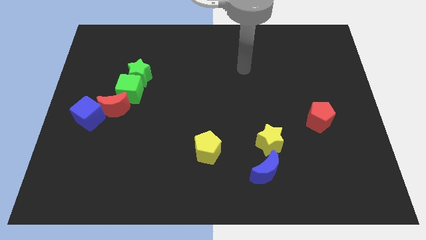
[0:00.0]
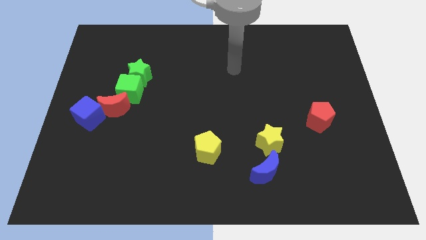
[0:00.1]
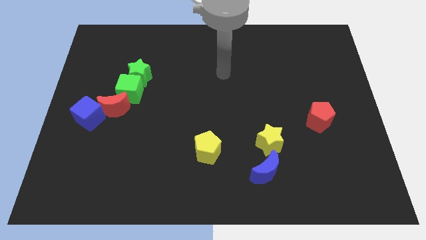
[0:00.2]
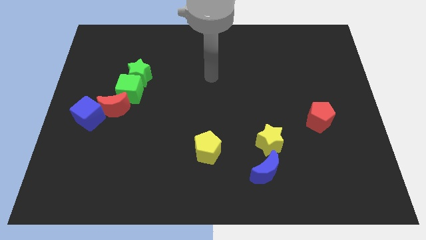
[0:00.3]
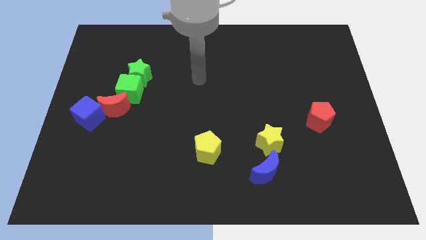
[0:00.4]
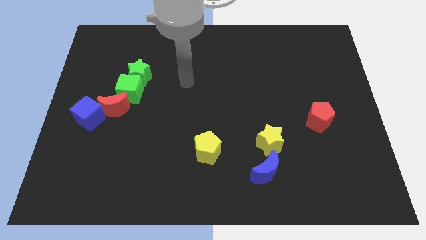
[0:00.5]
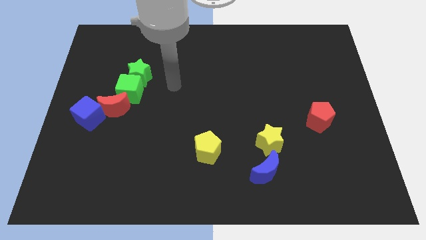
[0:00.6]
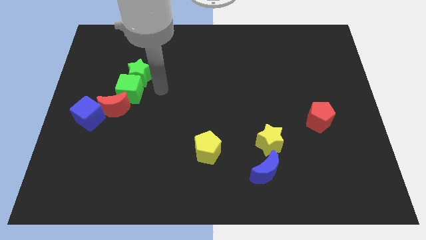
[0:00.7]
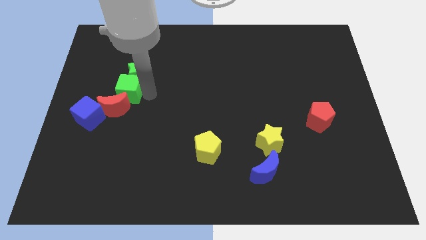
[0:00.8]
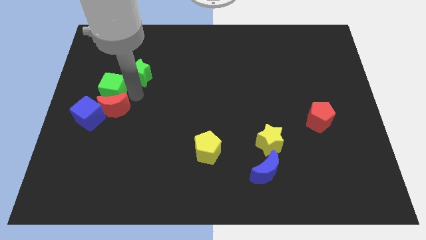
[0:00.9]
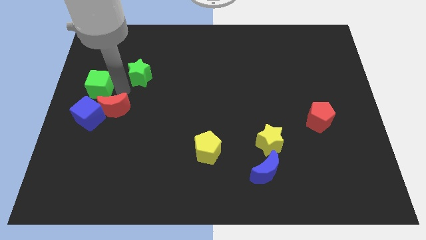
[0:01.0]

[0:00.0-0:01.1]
move the green star away from the green cube

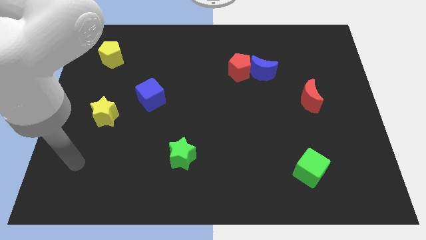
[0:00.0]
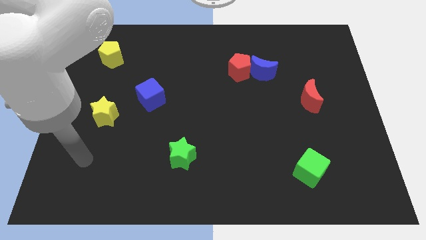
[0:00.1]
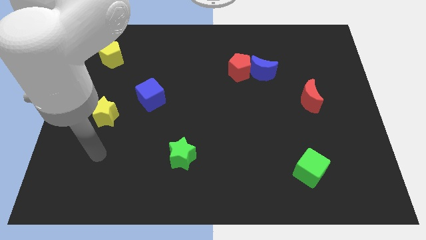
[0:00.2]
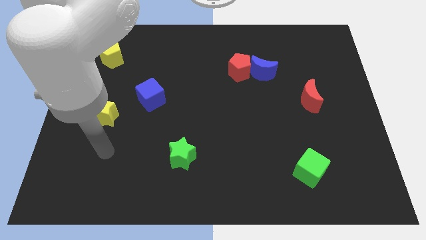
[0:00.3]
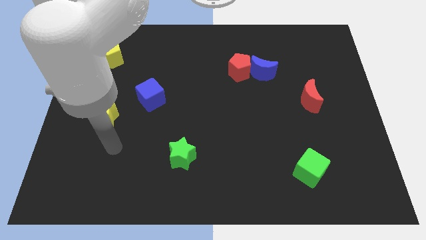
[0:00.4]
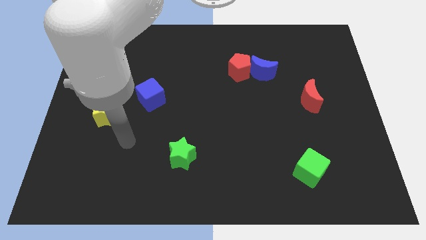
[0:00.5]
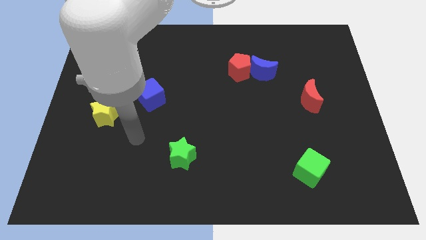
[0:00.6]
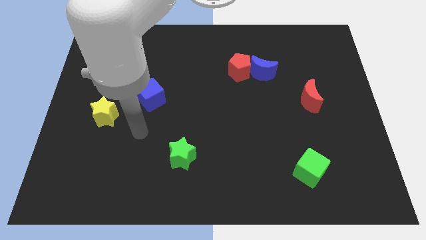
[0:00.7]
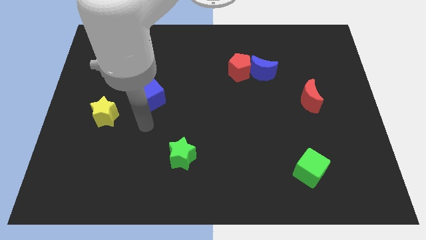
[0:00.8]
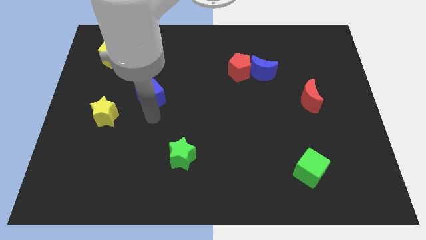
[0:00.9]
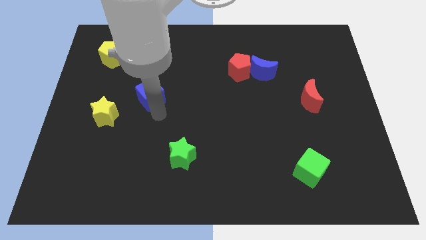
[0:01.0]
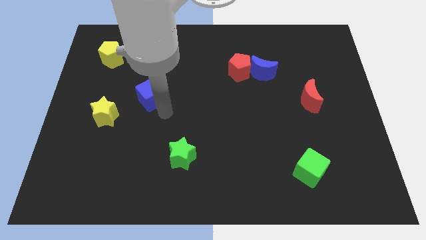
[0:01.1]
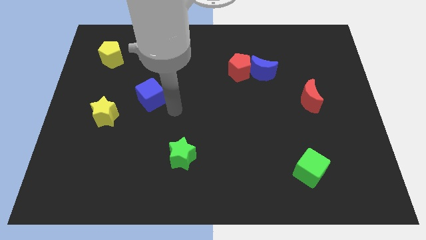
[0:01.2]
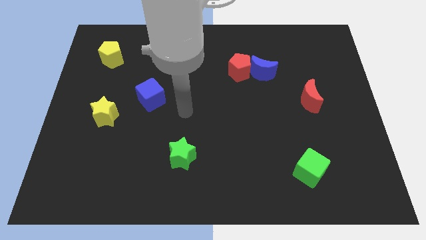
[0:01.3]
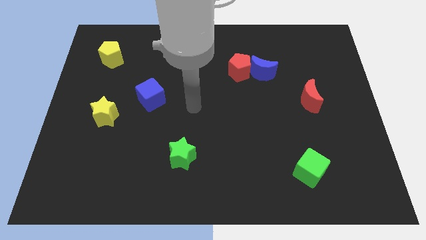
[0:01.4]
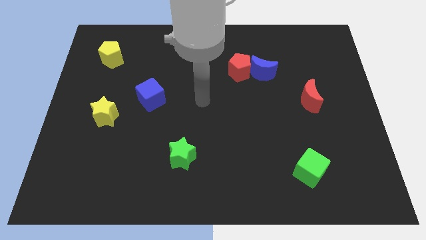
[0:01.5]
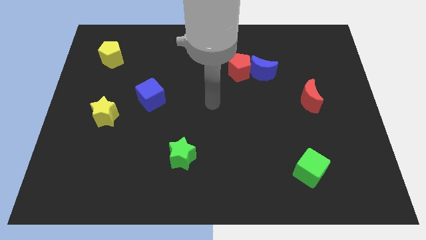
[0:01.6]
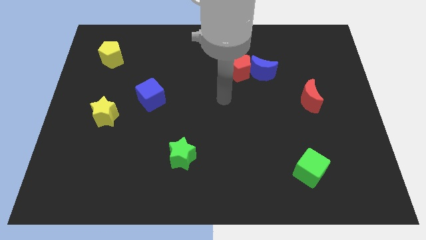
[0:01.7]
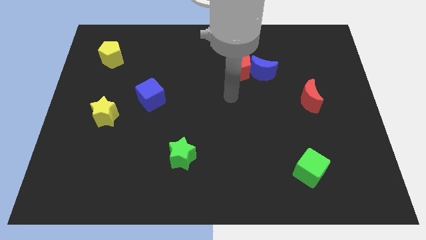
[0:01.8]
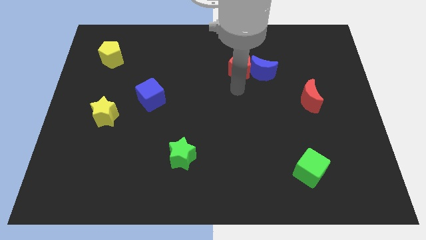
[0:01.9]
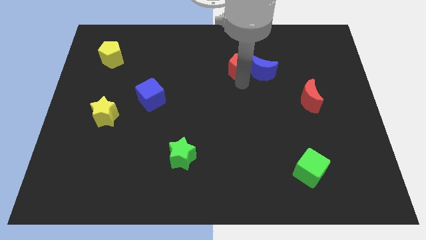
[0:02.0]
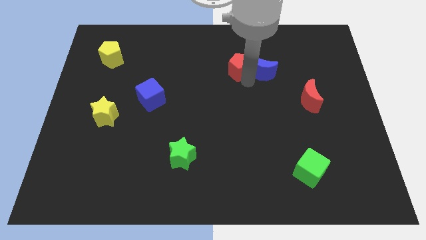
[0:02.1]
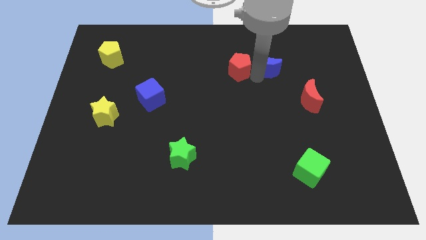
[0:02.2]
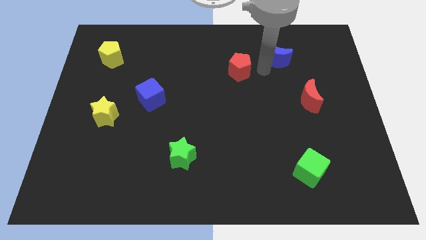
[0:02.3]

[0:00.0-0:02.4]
pull the red pentagon apart from the blue moon

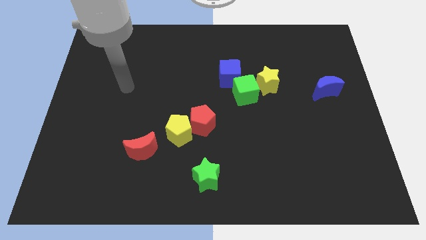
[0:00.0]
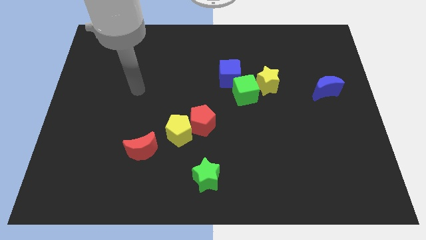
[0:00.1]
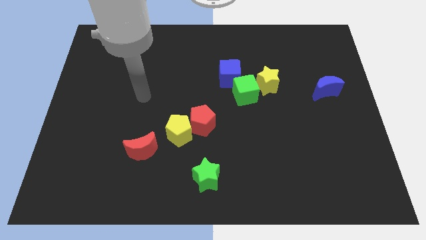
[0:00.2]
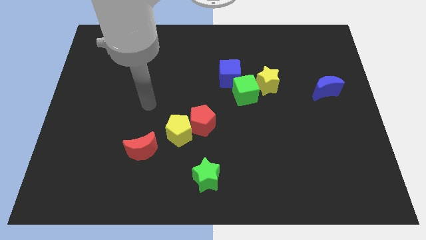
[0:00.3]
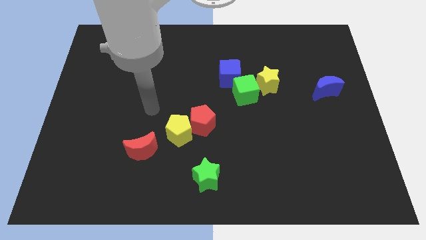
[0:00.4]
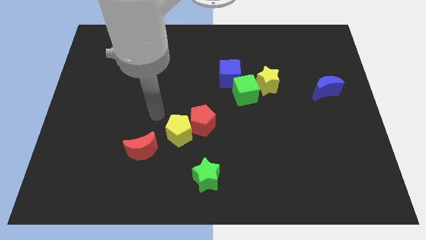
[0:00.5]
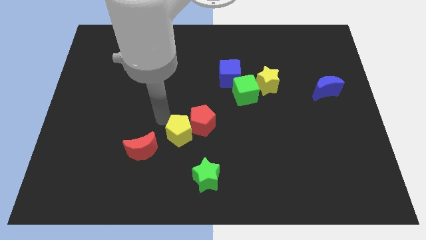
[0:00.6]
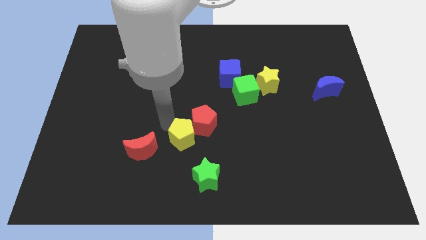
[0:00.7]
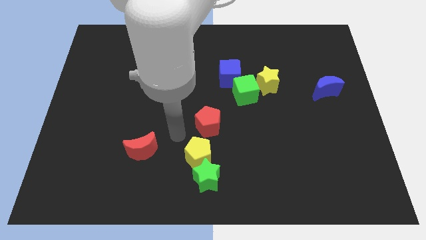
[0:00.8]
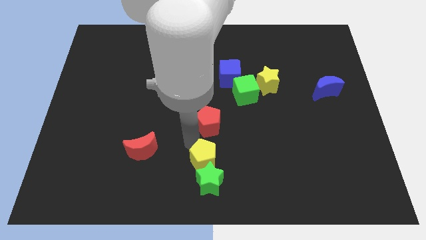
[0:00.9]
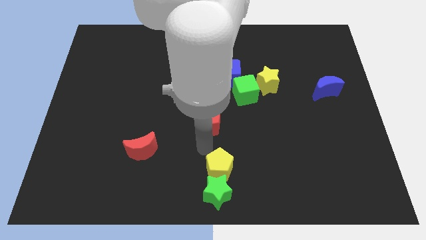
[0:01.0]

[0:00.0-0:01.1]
move the red pentagon away from the yellow pentagon

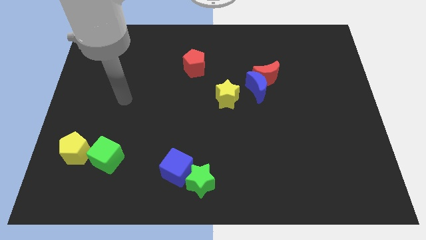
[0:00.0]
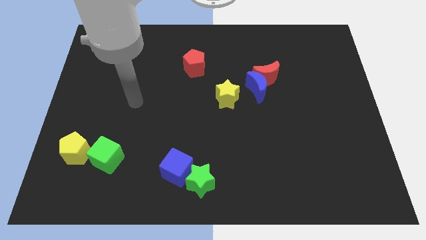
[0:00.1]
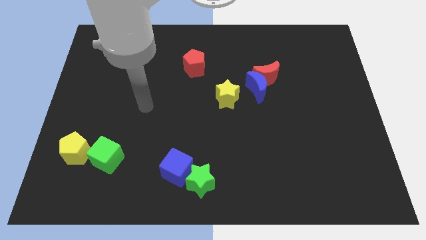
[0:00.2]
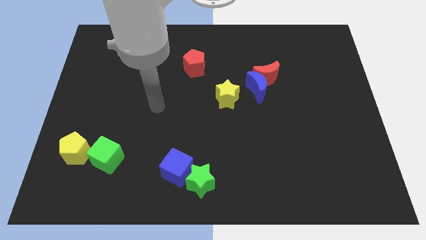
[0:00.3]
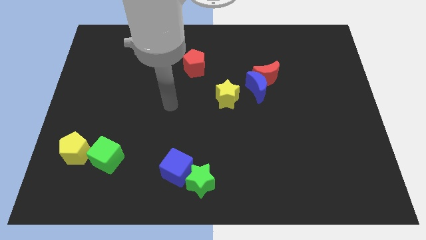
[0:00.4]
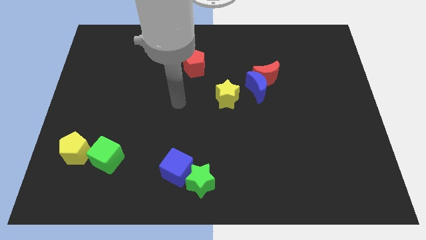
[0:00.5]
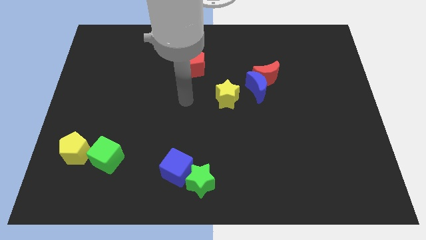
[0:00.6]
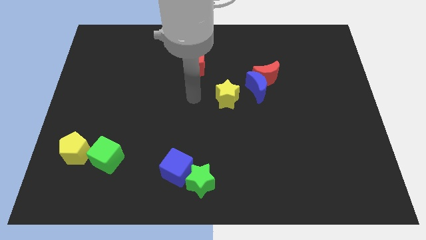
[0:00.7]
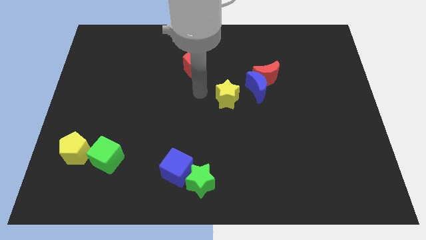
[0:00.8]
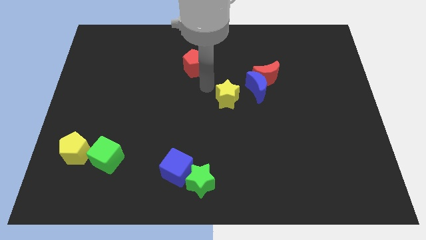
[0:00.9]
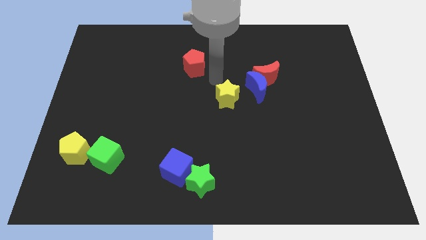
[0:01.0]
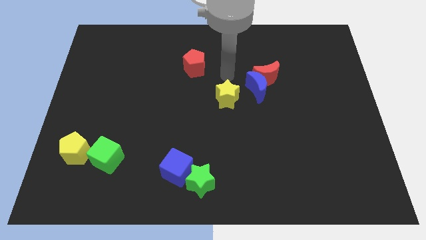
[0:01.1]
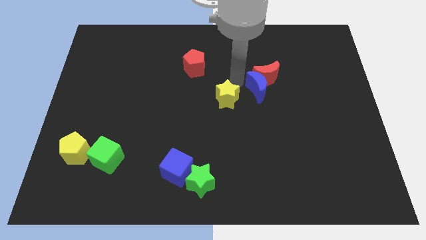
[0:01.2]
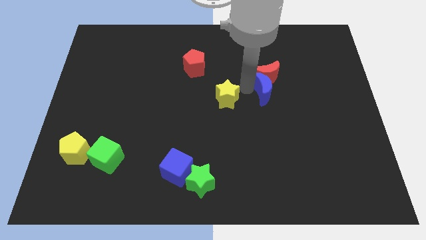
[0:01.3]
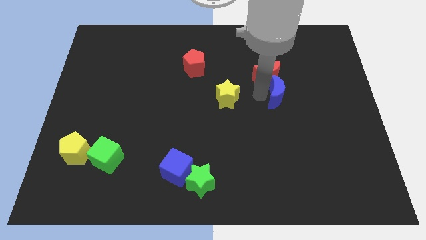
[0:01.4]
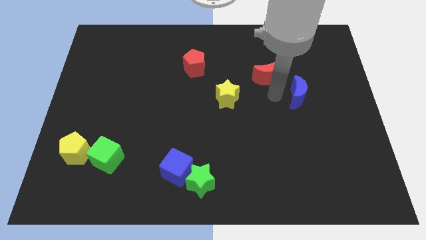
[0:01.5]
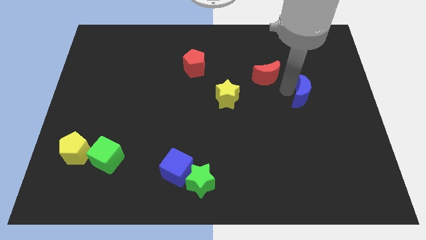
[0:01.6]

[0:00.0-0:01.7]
pull the red moon apart from the blue moon

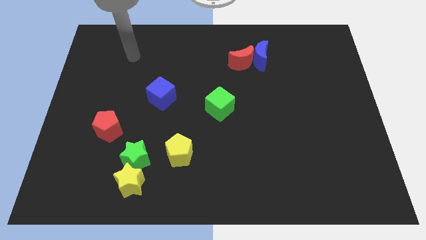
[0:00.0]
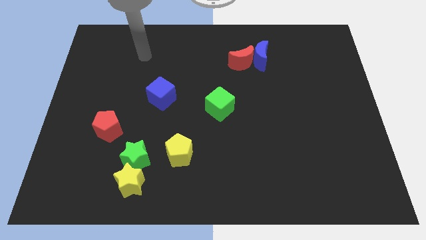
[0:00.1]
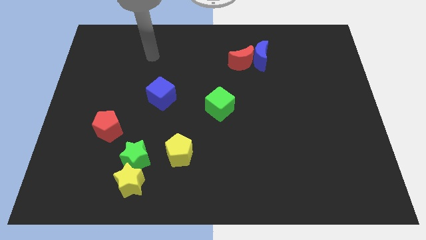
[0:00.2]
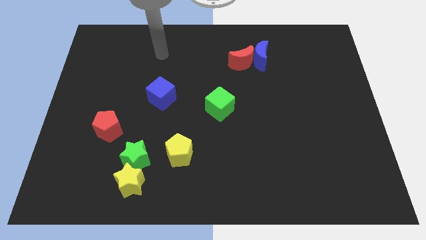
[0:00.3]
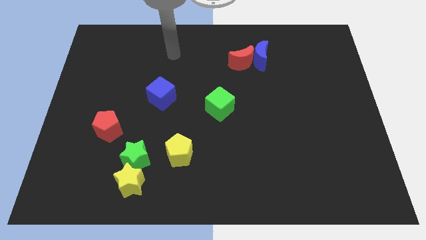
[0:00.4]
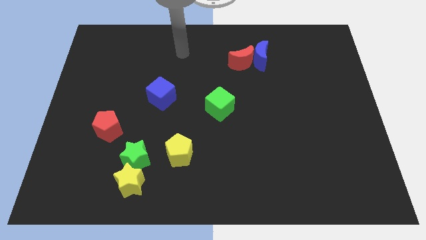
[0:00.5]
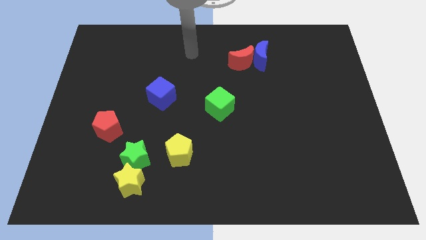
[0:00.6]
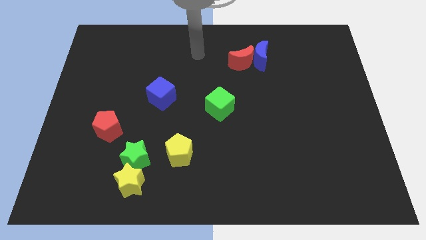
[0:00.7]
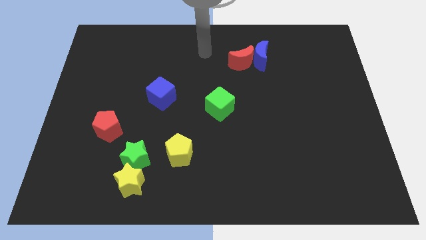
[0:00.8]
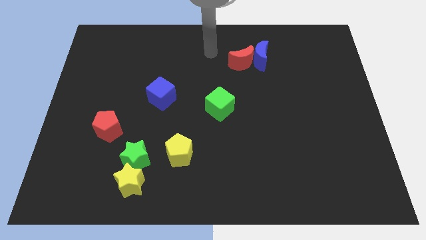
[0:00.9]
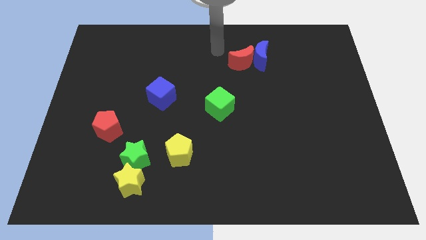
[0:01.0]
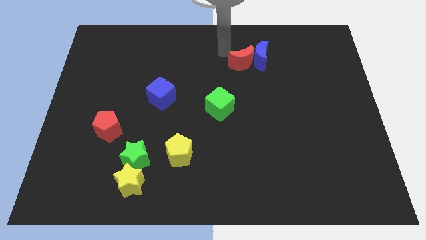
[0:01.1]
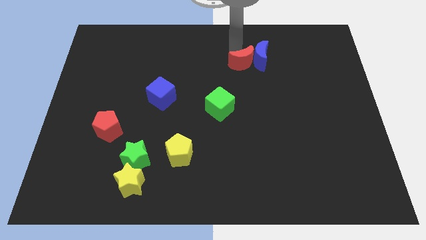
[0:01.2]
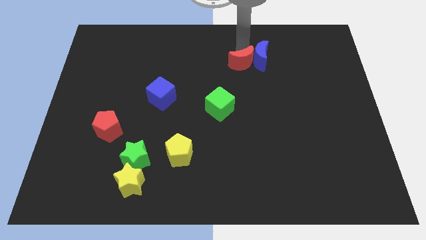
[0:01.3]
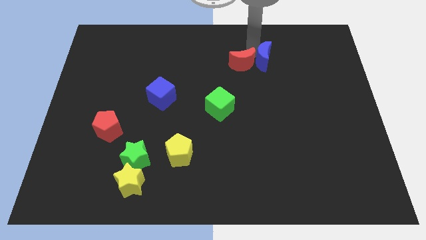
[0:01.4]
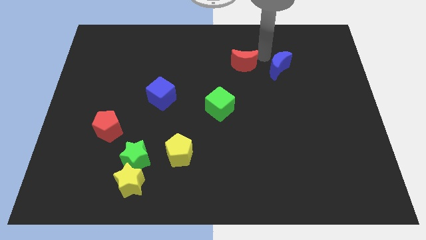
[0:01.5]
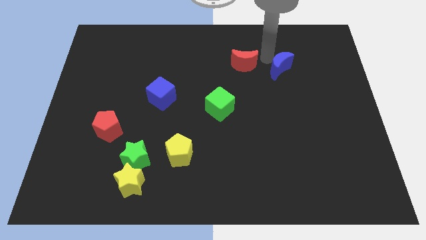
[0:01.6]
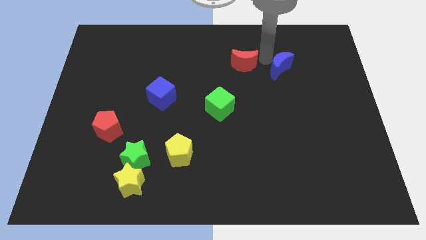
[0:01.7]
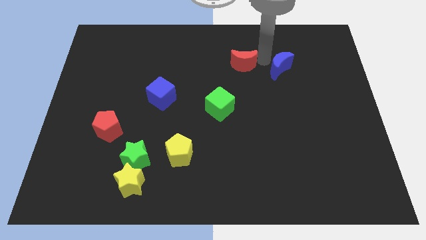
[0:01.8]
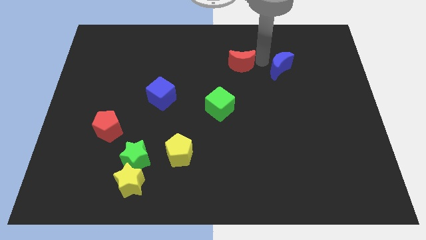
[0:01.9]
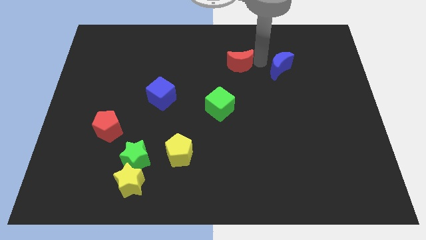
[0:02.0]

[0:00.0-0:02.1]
separate the red moon from the blue moon

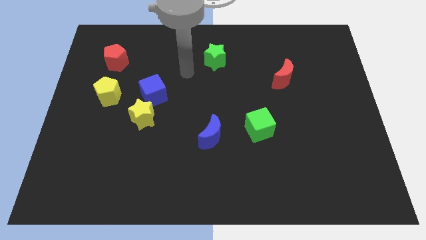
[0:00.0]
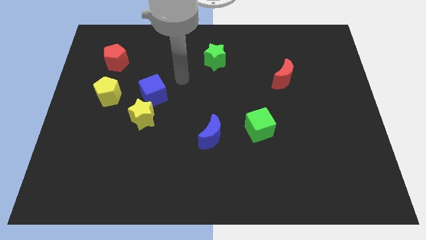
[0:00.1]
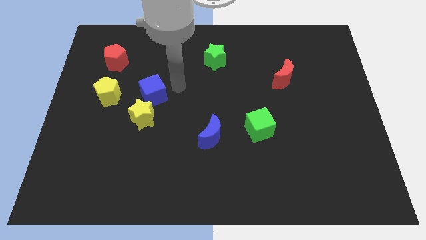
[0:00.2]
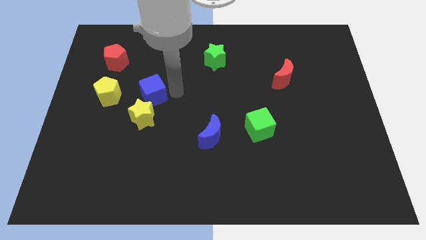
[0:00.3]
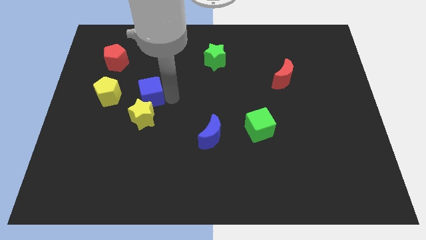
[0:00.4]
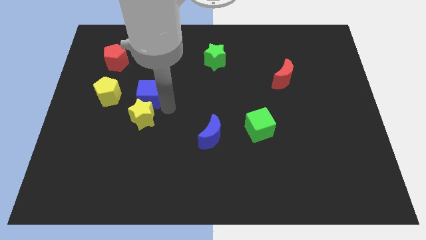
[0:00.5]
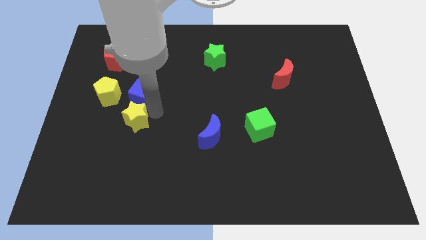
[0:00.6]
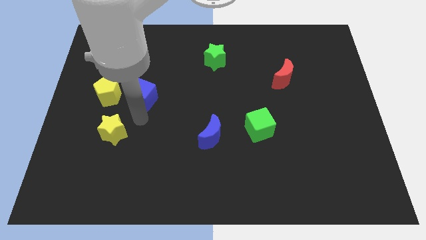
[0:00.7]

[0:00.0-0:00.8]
pull the blue cube apart from the yellow star

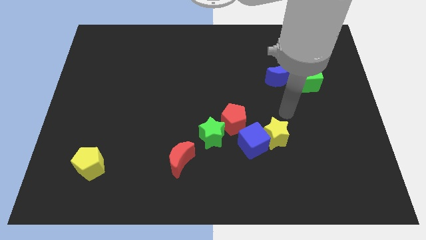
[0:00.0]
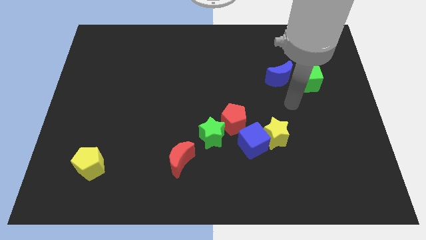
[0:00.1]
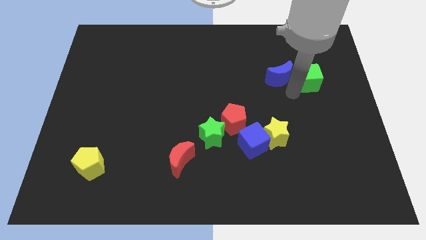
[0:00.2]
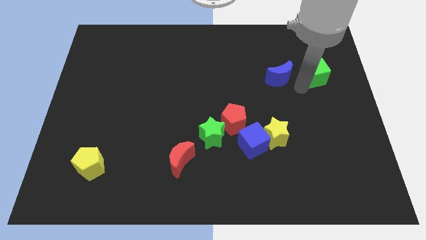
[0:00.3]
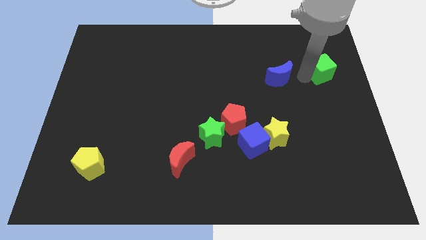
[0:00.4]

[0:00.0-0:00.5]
move the blue moon away from the green cube
